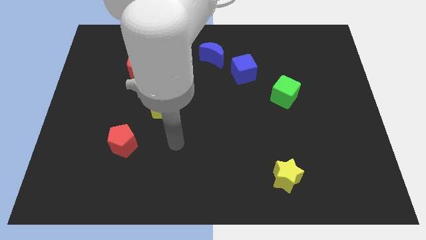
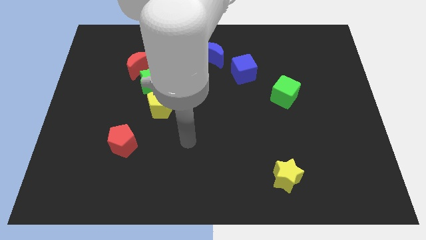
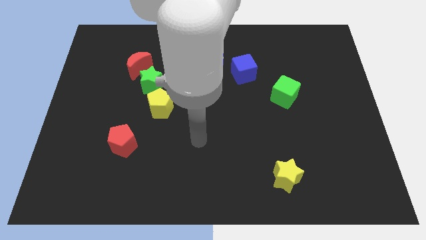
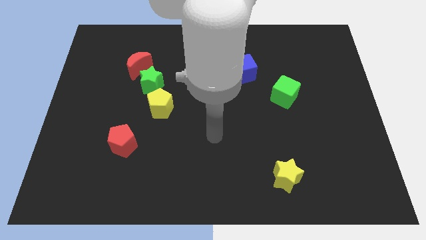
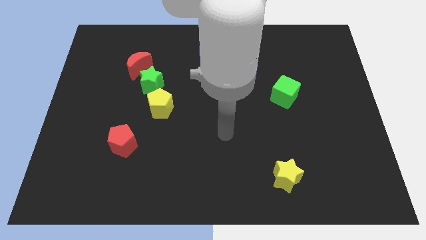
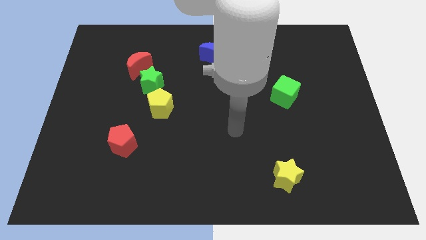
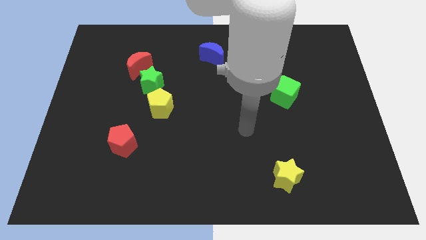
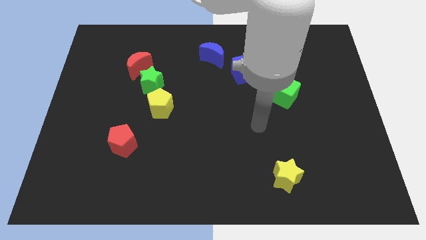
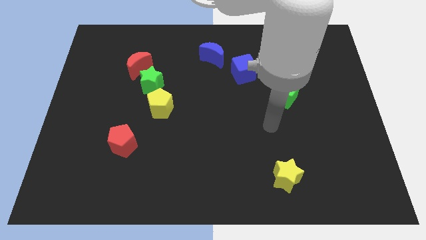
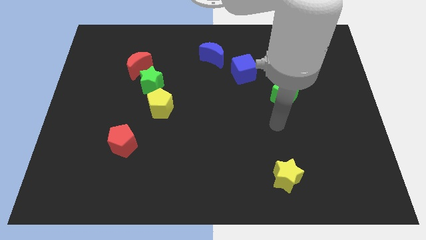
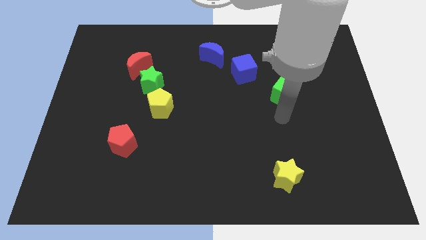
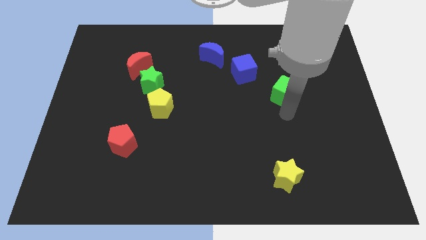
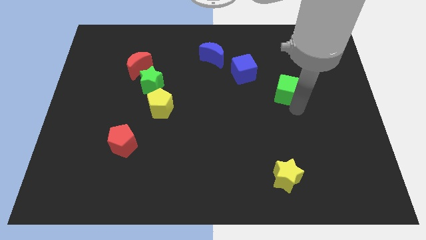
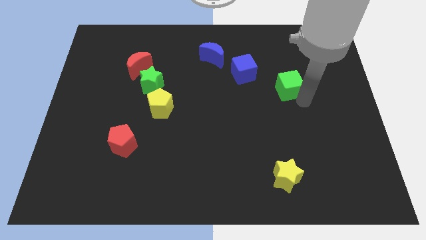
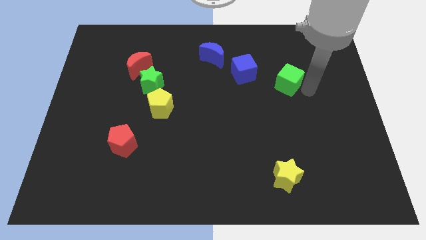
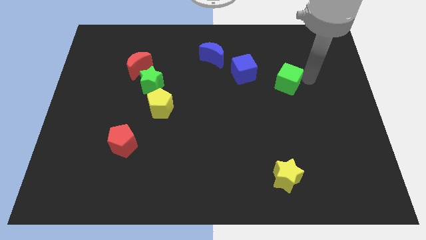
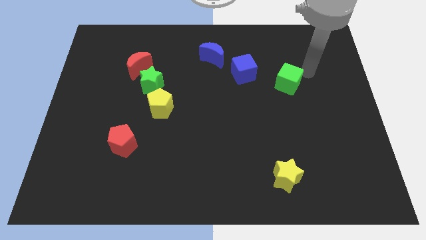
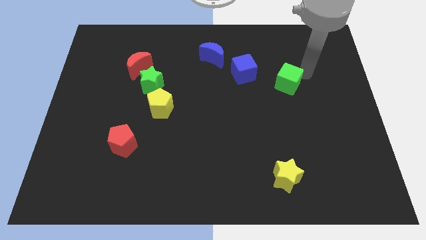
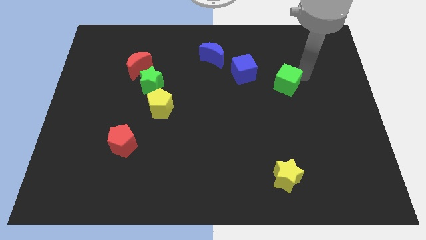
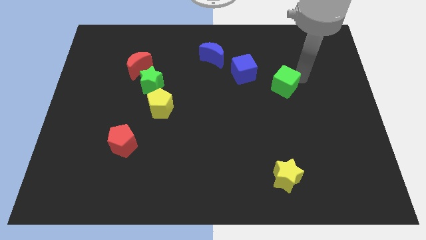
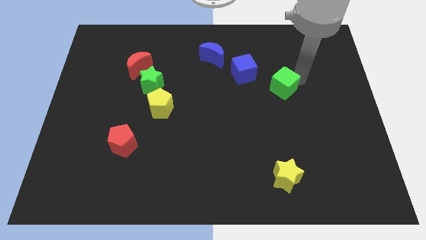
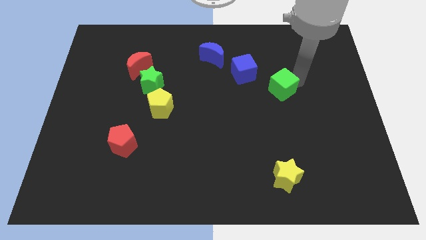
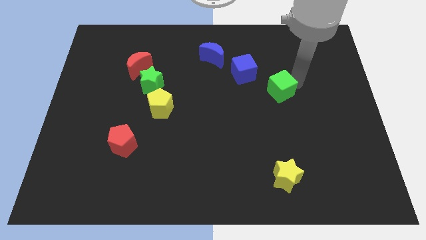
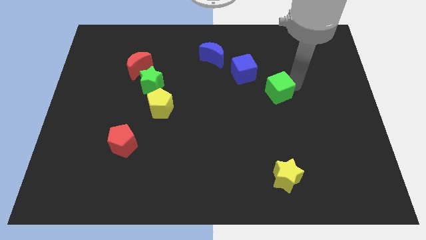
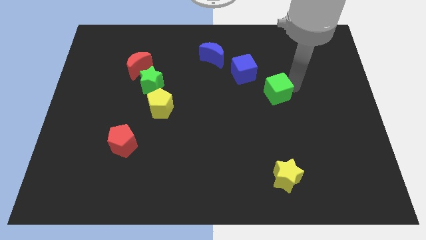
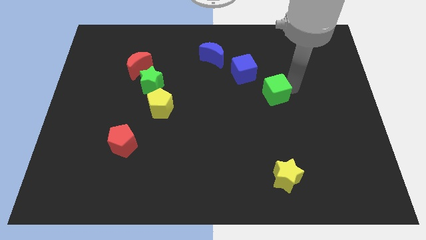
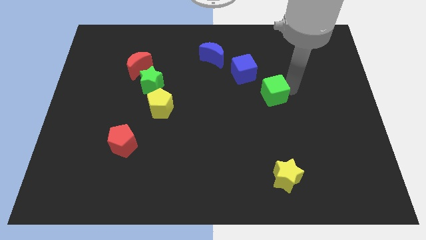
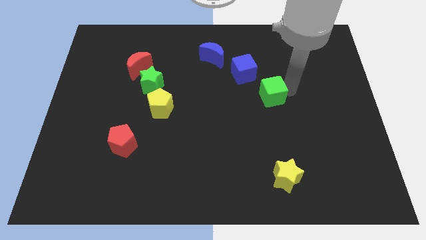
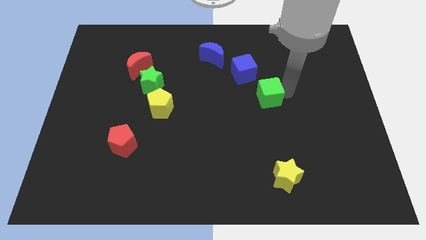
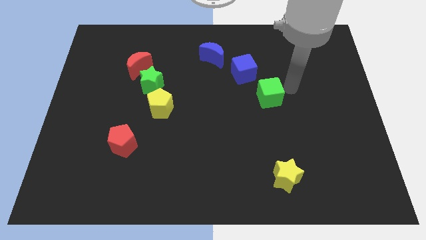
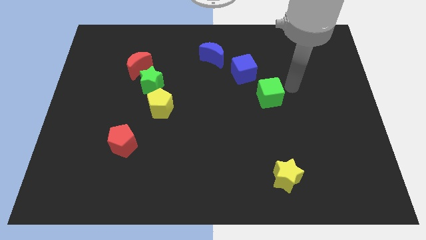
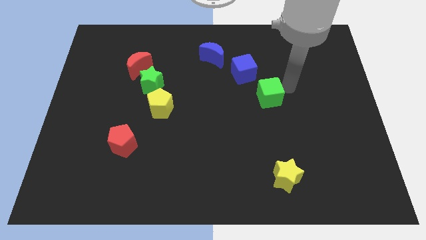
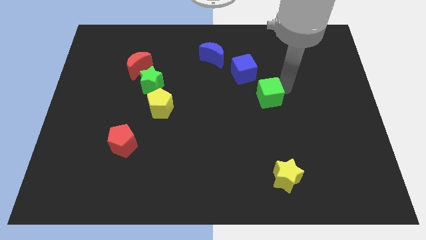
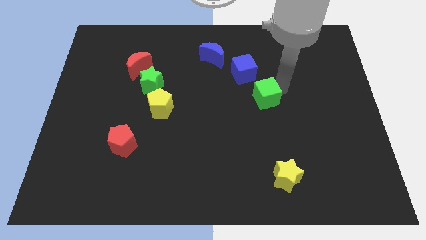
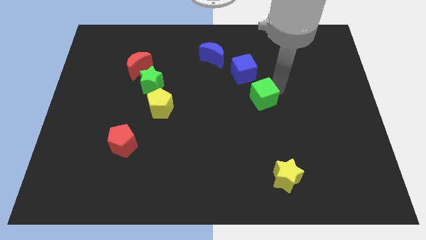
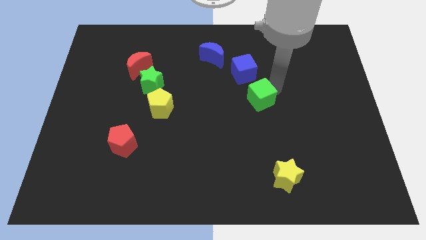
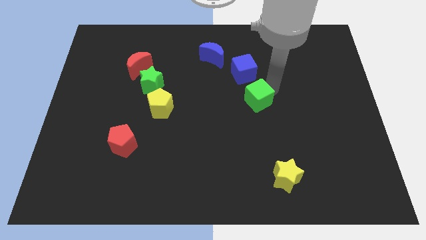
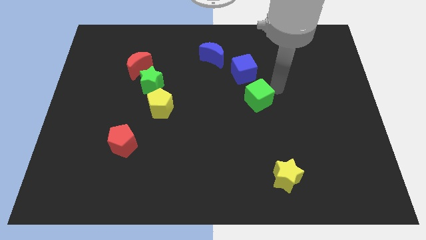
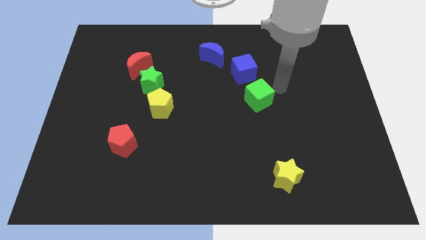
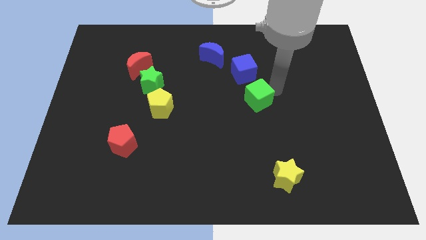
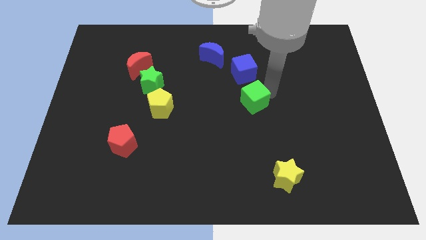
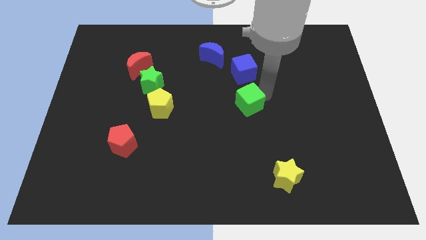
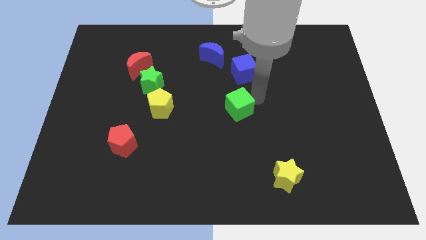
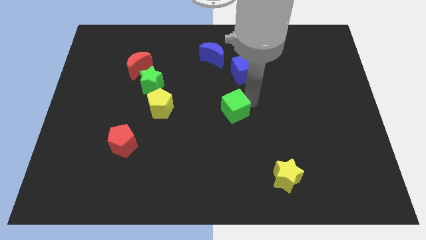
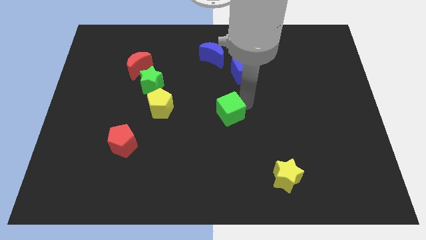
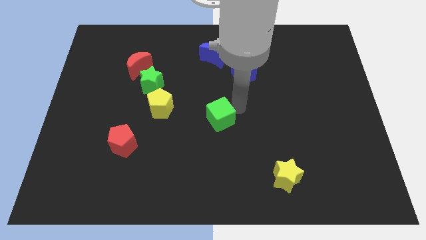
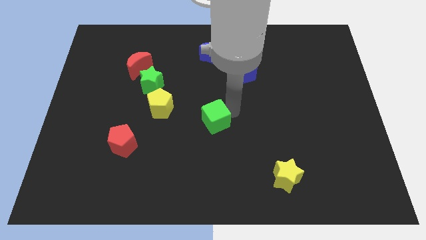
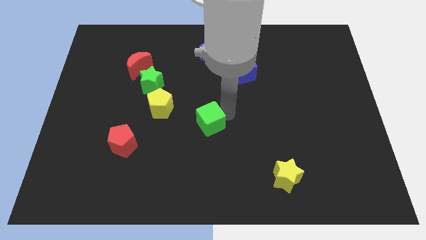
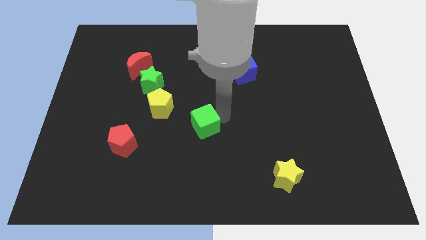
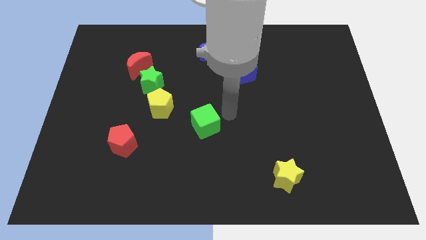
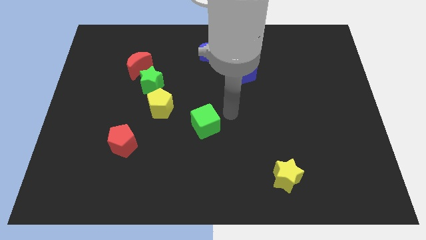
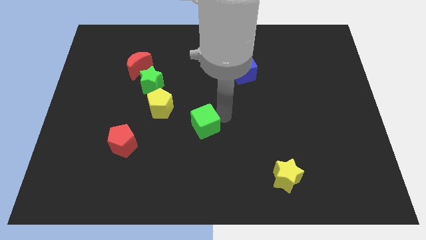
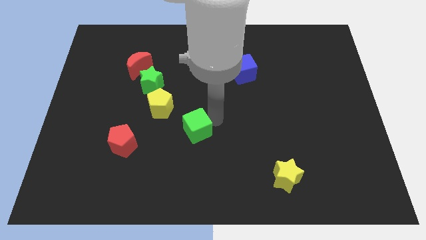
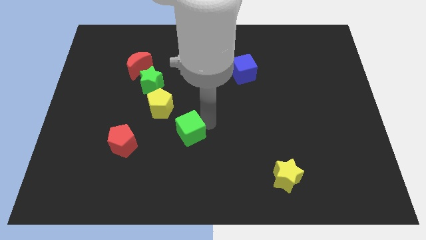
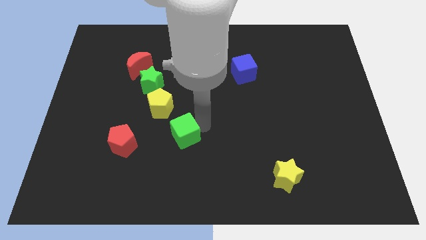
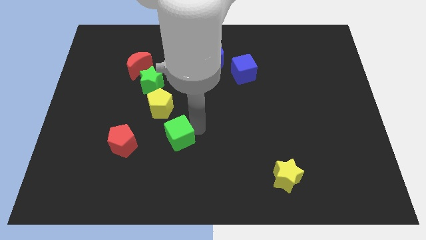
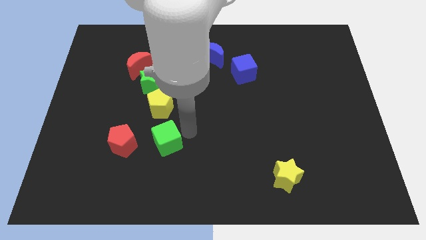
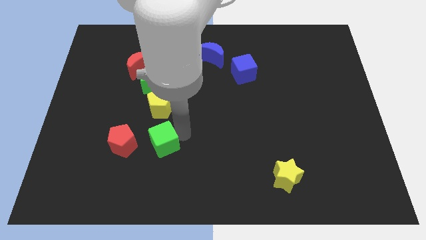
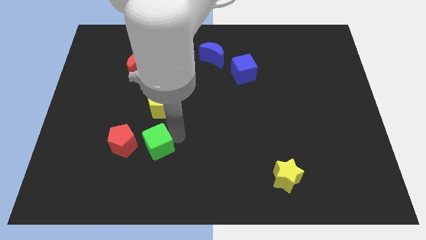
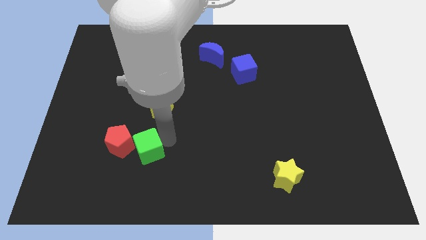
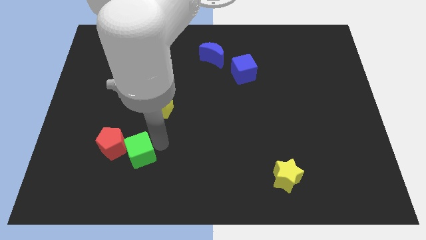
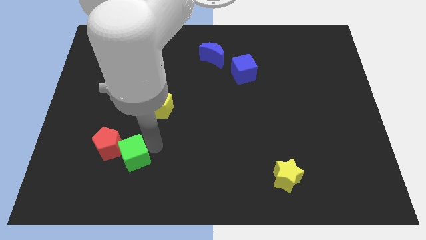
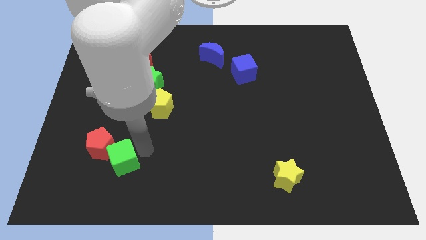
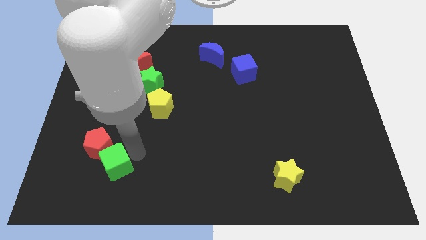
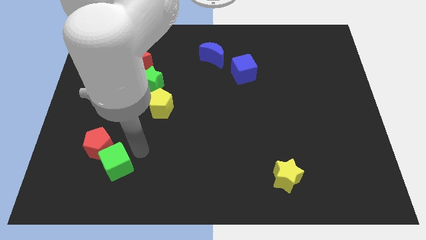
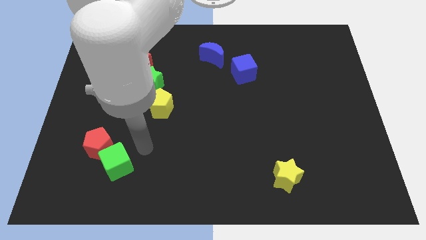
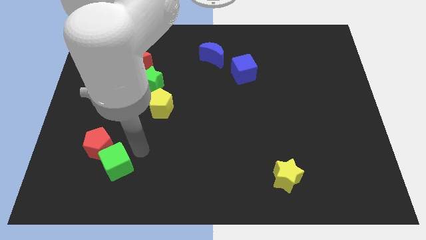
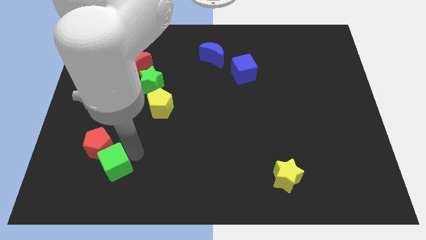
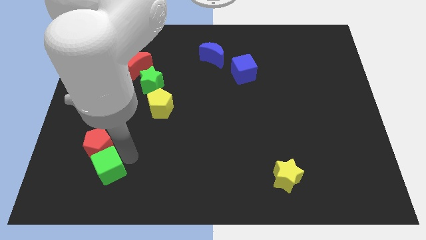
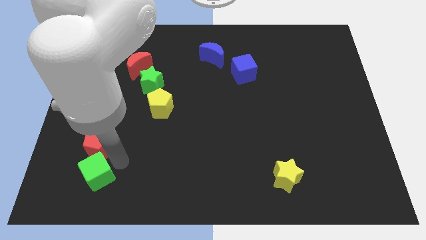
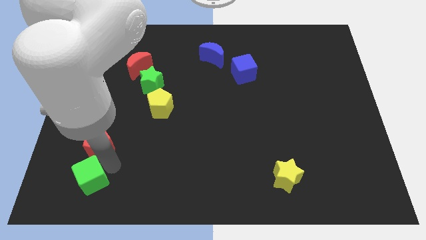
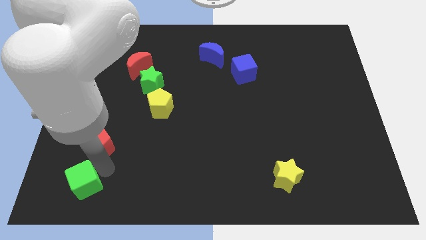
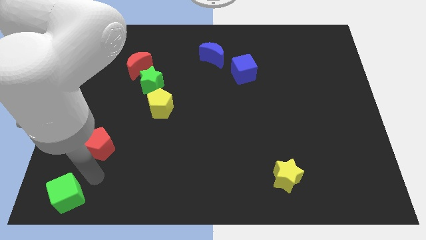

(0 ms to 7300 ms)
push the green cube to the bottom left of the board
